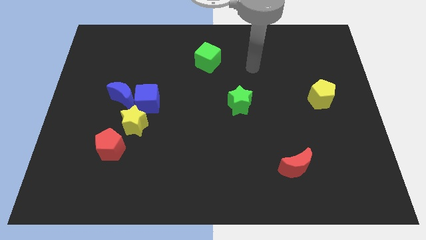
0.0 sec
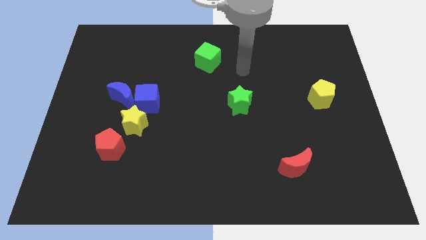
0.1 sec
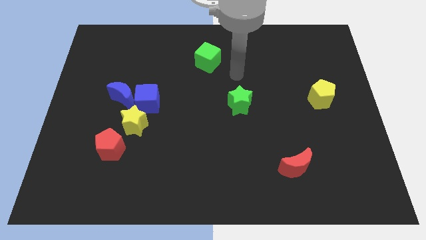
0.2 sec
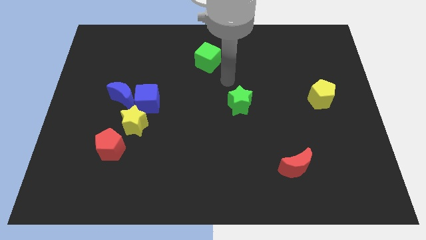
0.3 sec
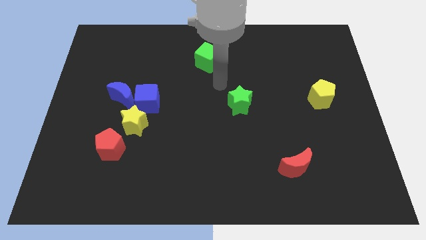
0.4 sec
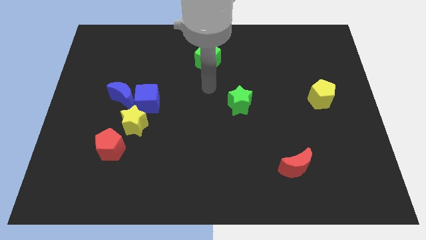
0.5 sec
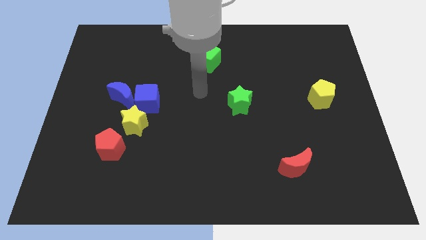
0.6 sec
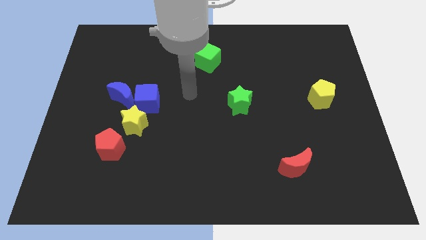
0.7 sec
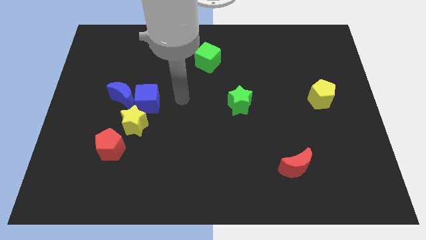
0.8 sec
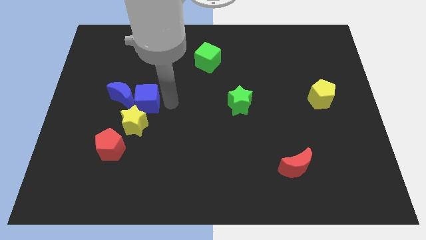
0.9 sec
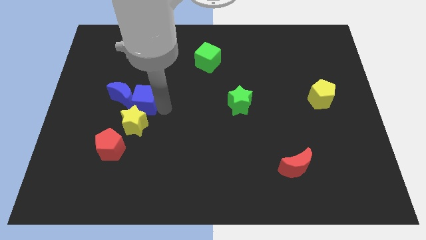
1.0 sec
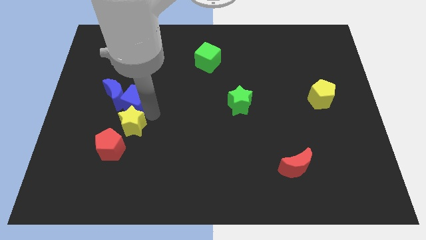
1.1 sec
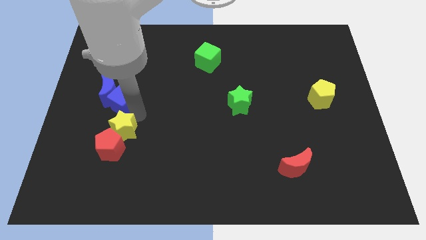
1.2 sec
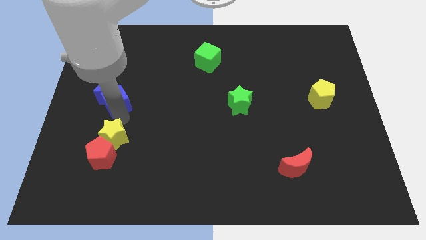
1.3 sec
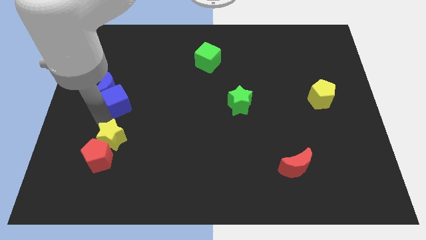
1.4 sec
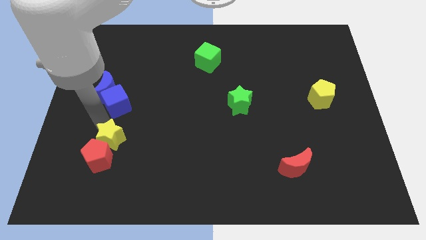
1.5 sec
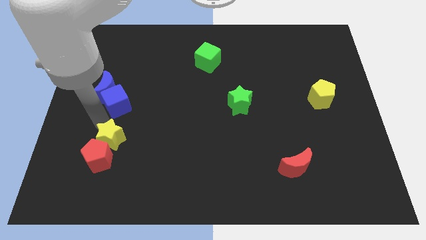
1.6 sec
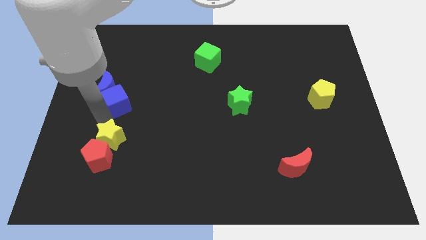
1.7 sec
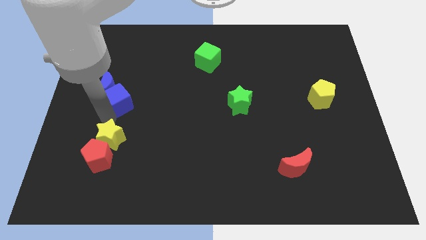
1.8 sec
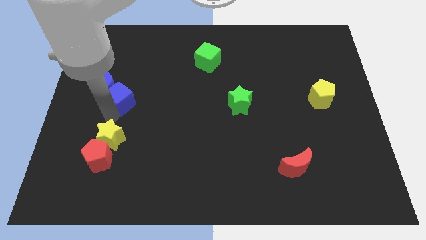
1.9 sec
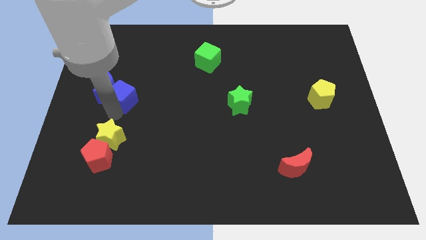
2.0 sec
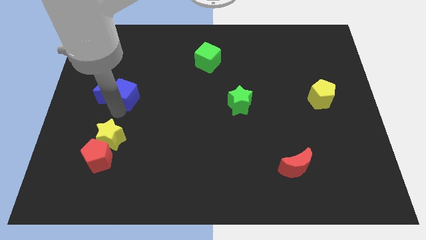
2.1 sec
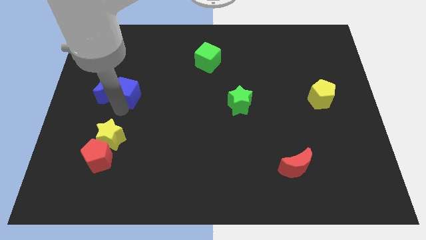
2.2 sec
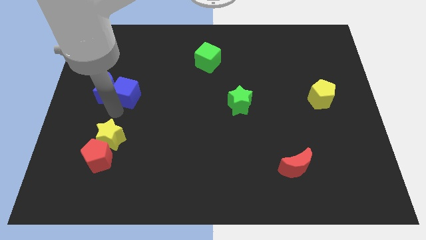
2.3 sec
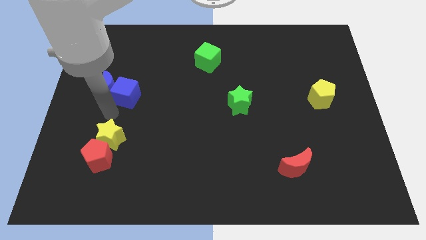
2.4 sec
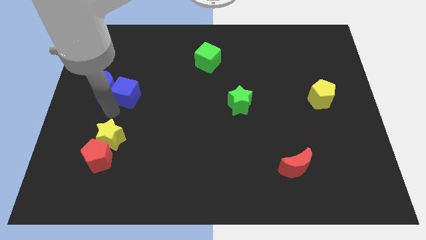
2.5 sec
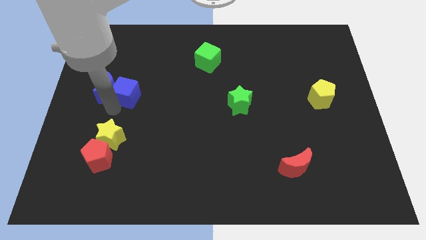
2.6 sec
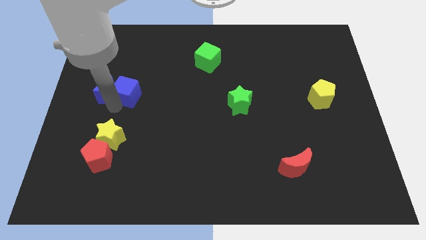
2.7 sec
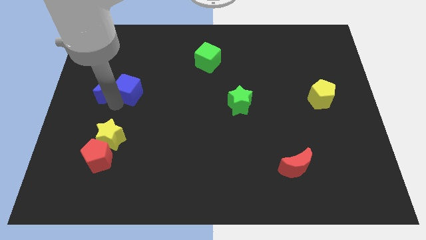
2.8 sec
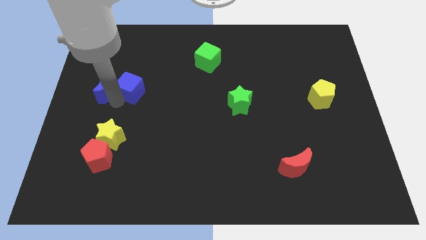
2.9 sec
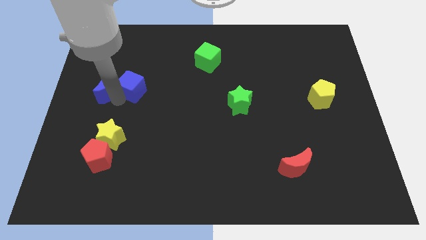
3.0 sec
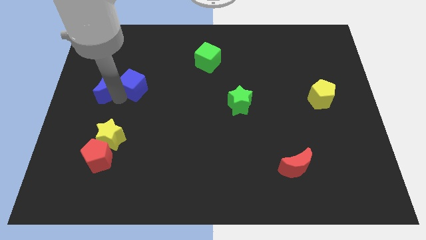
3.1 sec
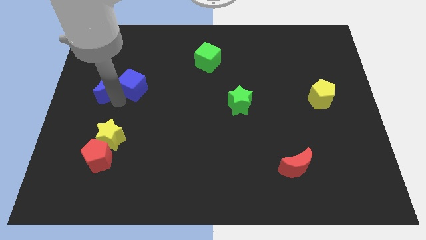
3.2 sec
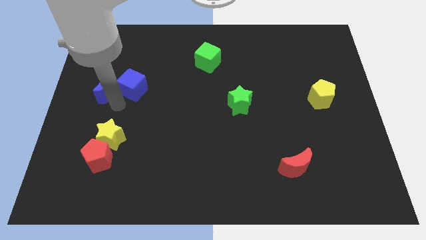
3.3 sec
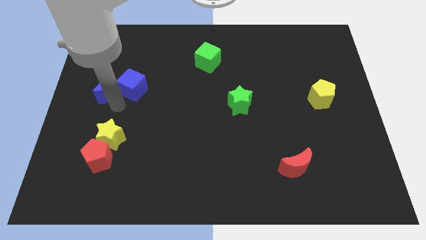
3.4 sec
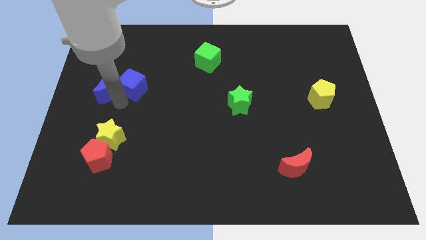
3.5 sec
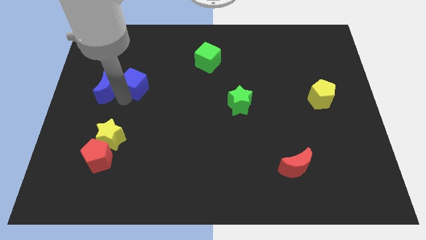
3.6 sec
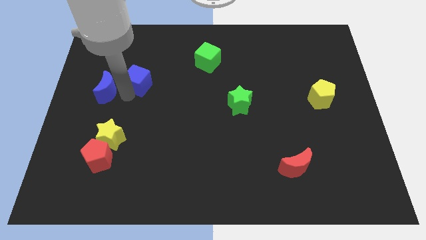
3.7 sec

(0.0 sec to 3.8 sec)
move the blue cube away from the blue moon and yellow star

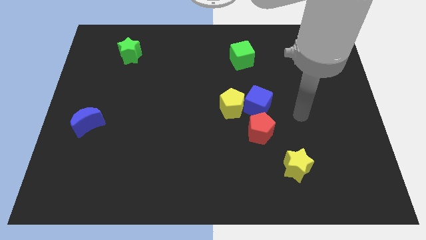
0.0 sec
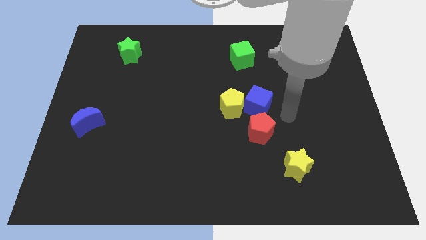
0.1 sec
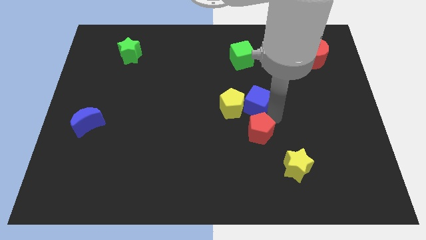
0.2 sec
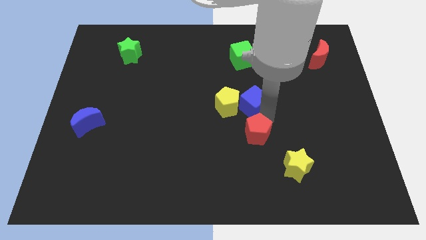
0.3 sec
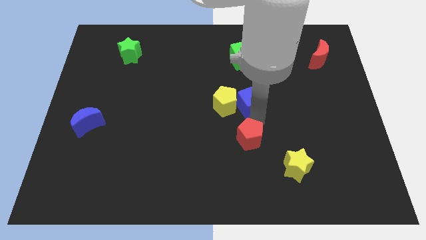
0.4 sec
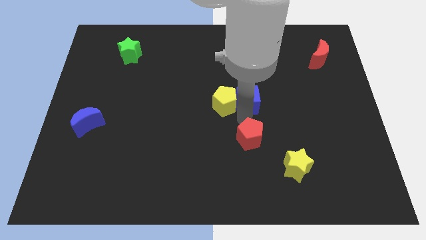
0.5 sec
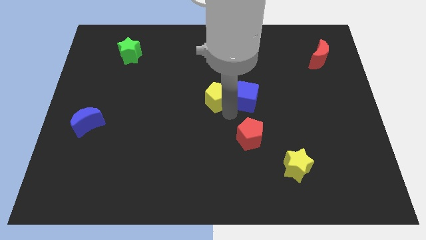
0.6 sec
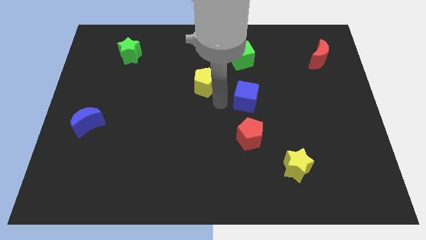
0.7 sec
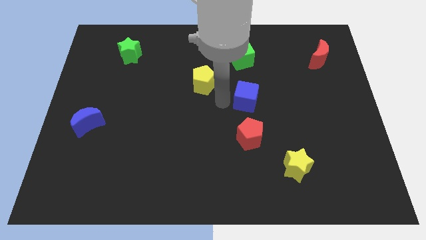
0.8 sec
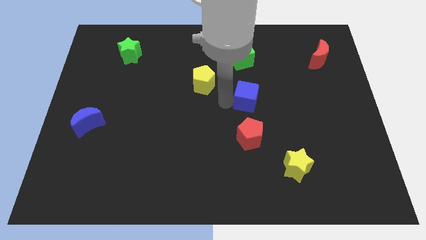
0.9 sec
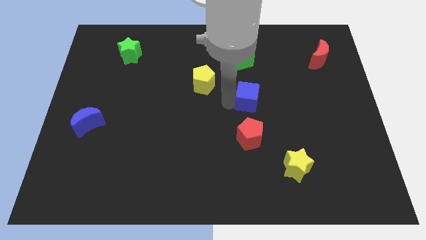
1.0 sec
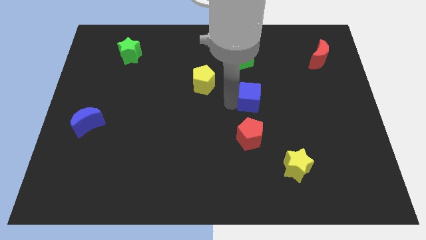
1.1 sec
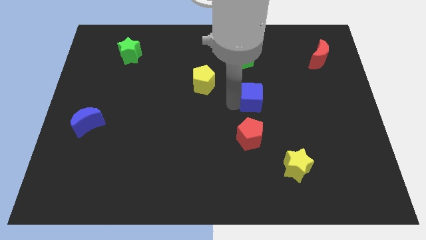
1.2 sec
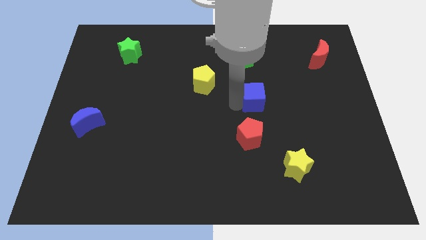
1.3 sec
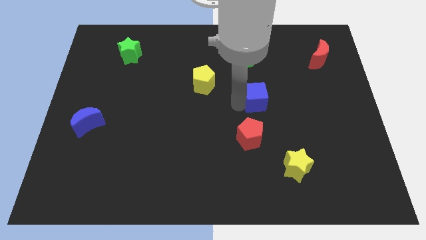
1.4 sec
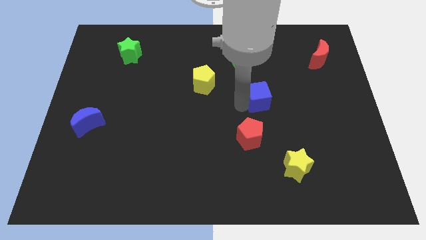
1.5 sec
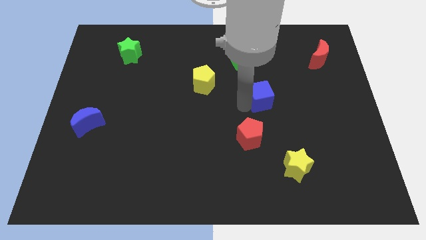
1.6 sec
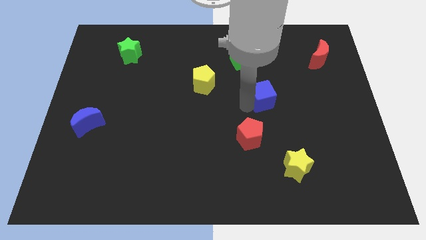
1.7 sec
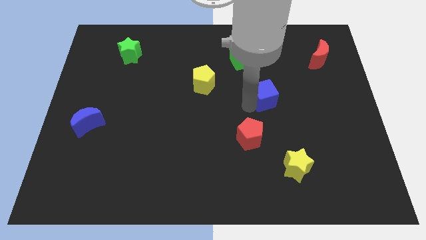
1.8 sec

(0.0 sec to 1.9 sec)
move the blue cube away from the yellow pentagon and red pentagon

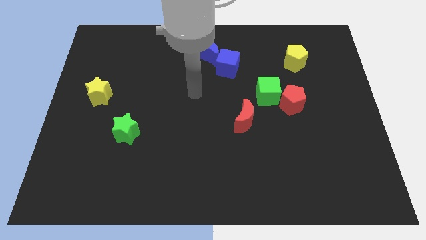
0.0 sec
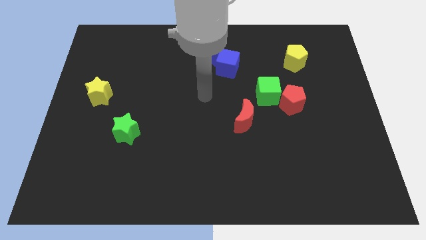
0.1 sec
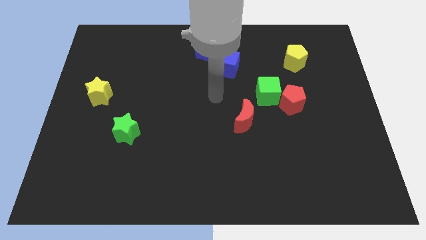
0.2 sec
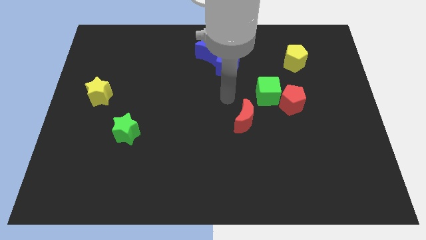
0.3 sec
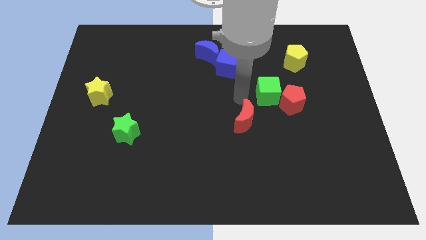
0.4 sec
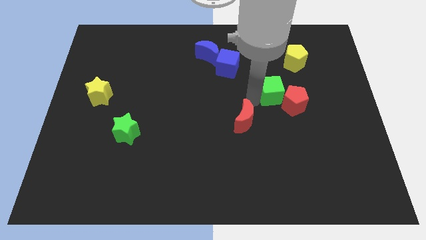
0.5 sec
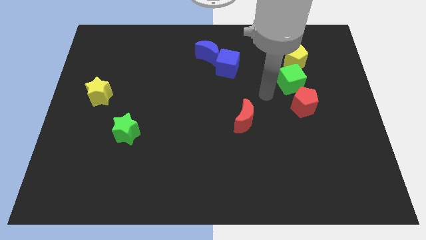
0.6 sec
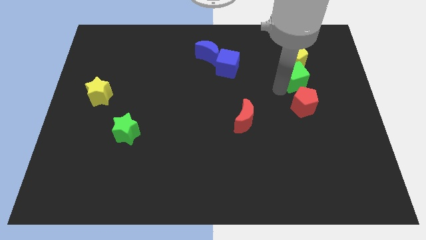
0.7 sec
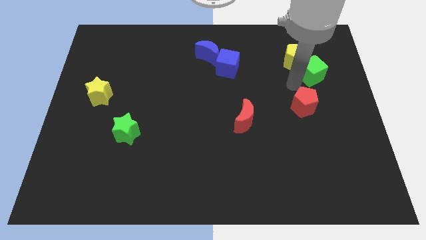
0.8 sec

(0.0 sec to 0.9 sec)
move the red pentagon away from the green cube

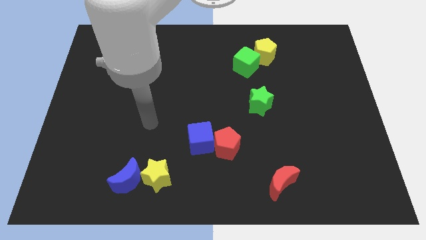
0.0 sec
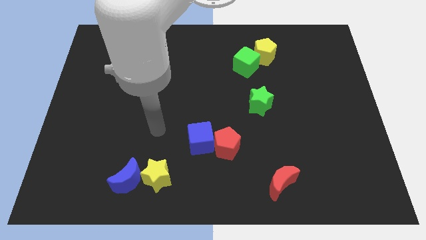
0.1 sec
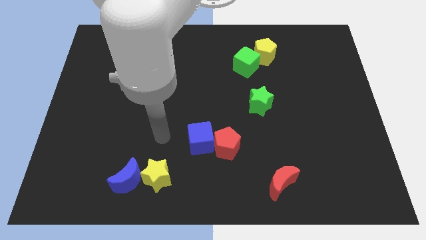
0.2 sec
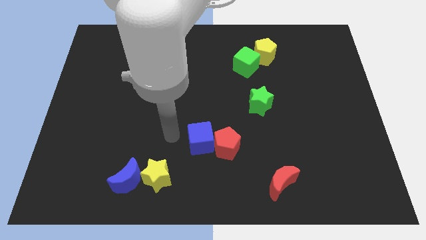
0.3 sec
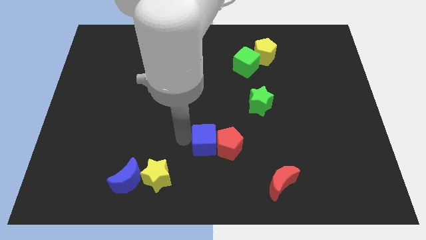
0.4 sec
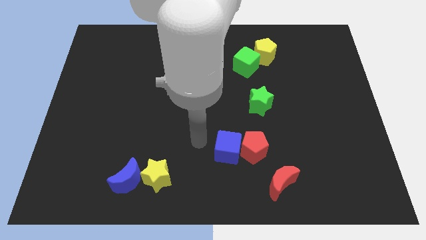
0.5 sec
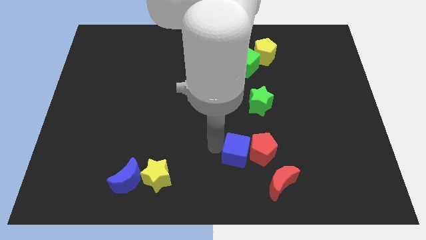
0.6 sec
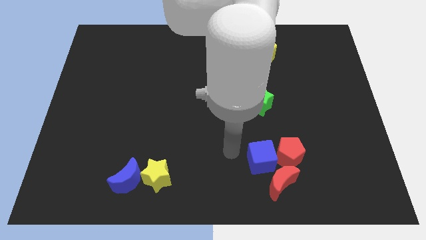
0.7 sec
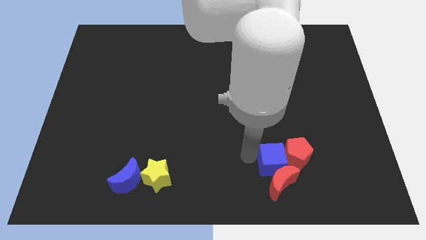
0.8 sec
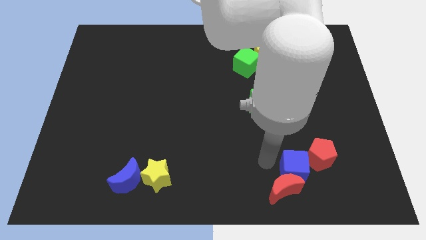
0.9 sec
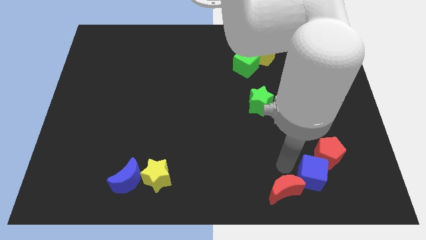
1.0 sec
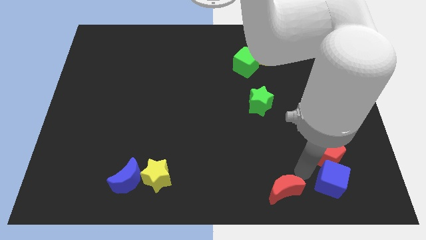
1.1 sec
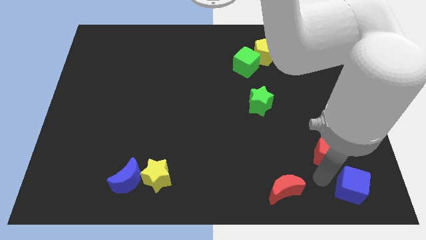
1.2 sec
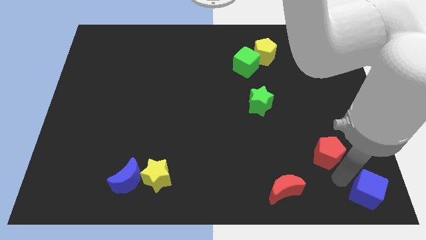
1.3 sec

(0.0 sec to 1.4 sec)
pull the red pentagon apart from the blue cube

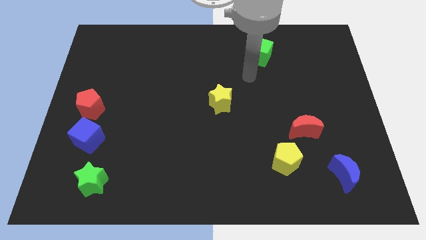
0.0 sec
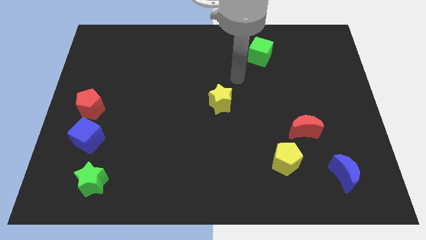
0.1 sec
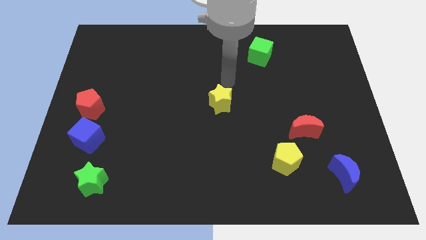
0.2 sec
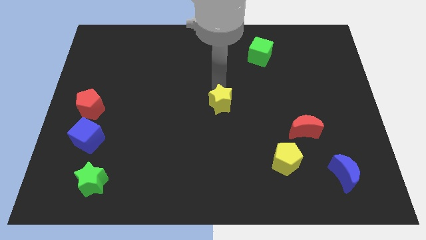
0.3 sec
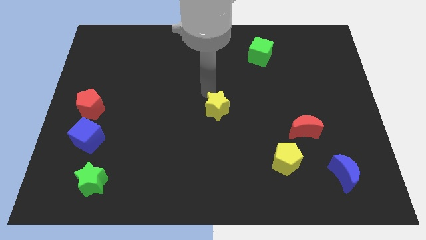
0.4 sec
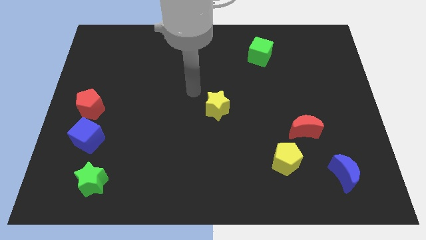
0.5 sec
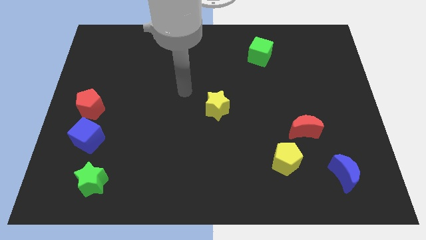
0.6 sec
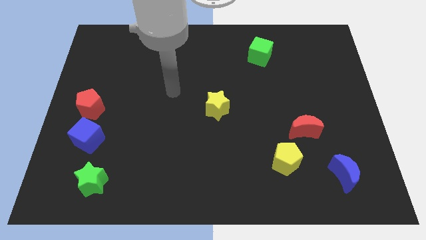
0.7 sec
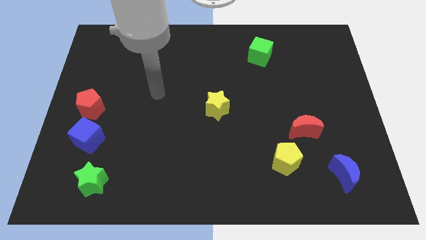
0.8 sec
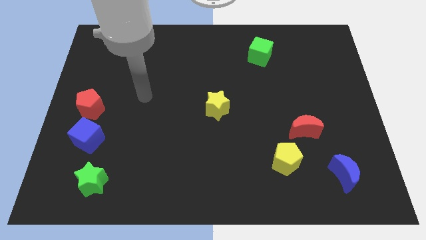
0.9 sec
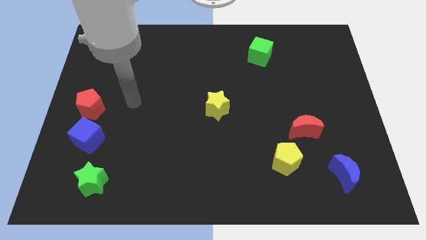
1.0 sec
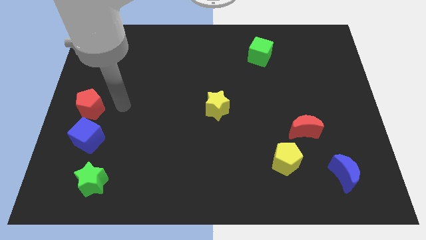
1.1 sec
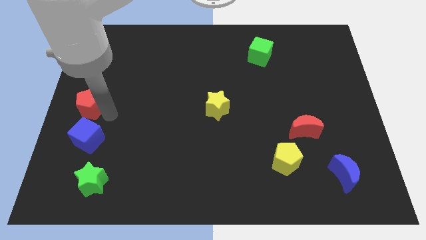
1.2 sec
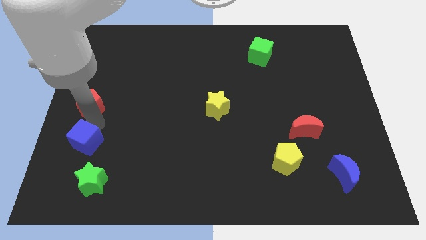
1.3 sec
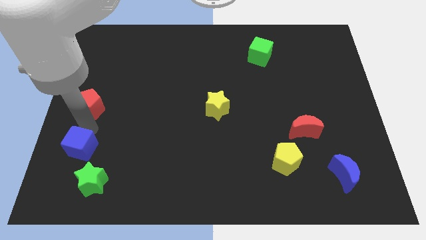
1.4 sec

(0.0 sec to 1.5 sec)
separate the red pentagon from the blue cube

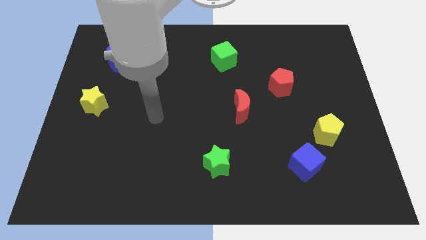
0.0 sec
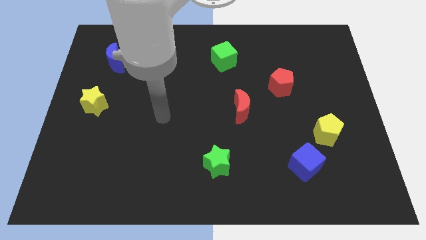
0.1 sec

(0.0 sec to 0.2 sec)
pull the blue cube apart from the yellow pentagon
